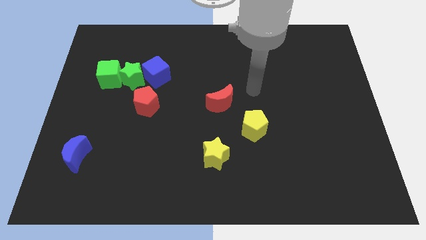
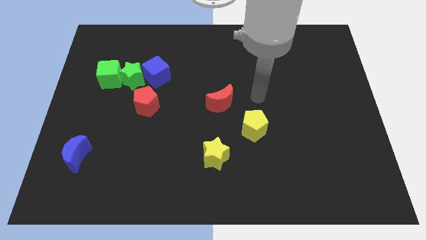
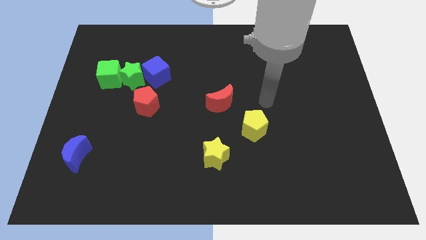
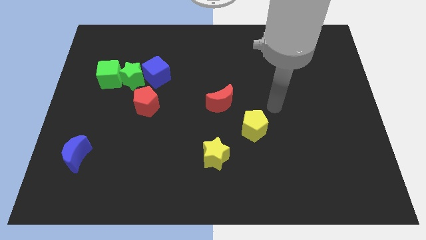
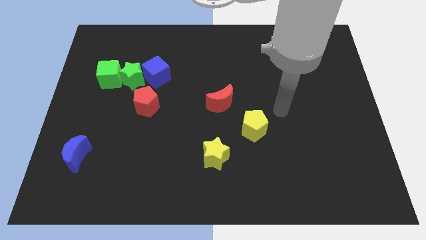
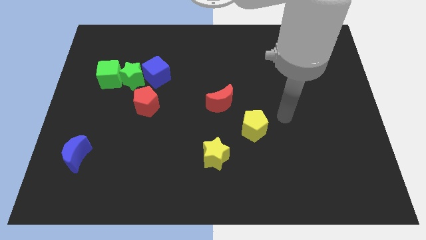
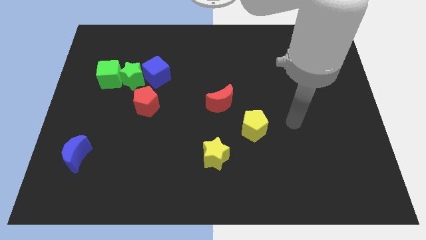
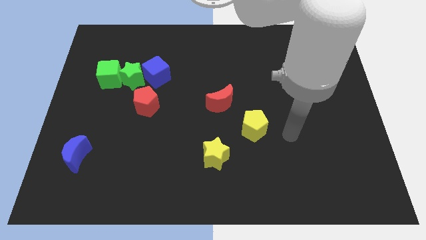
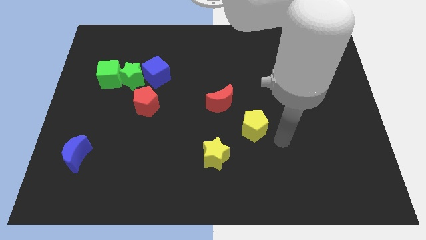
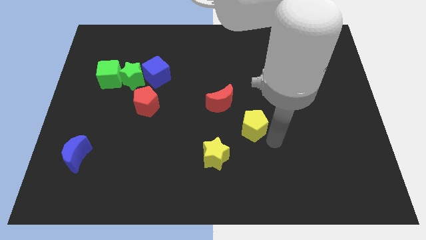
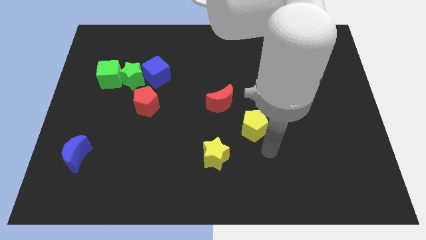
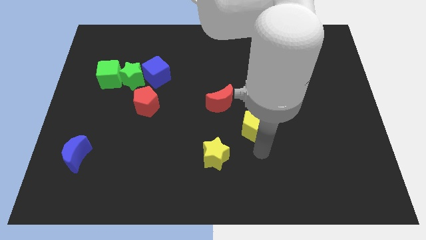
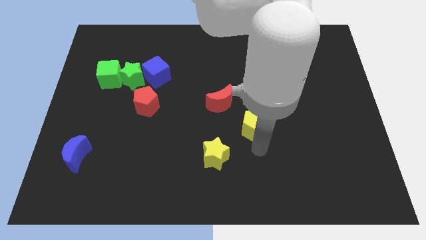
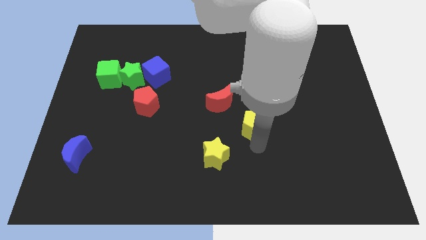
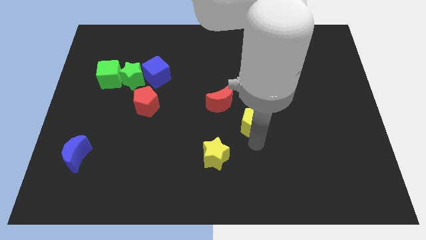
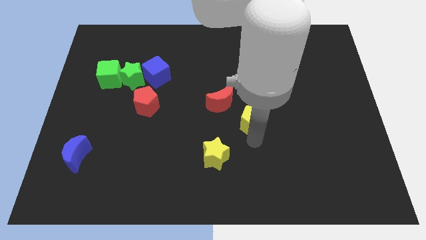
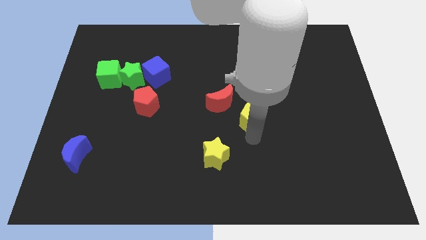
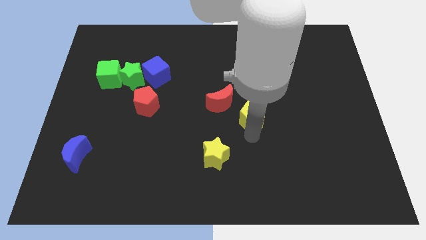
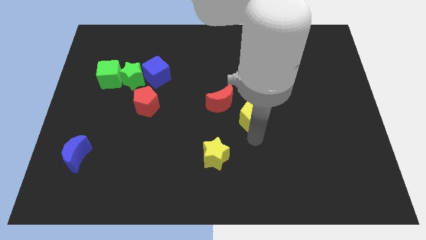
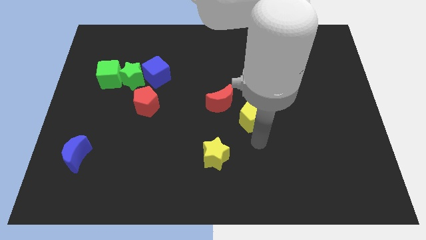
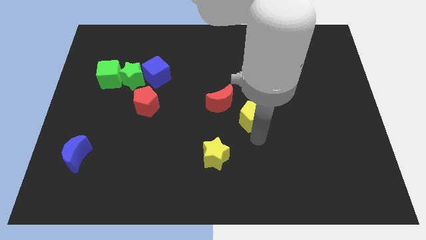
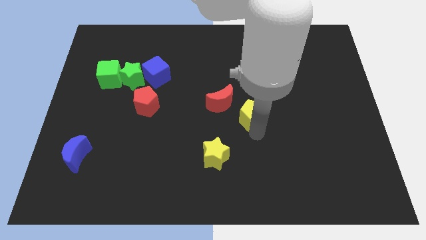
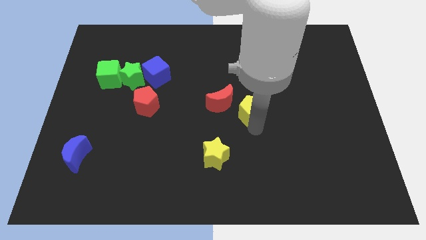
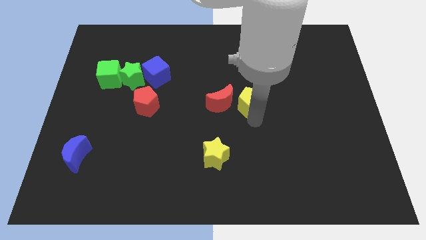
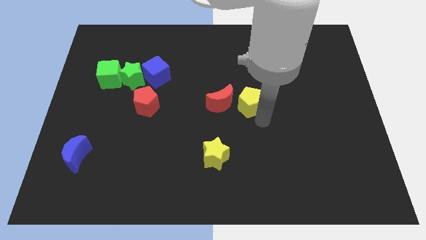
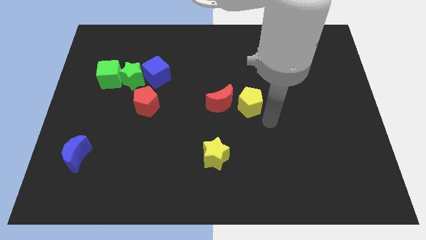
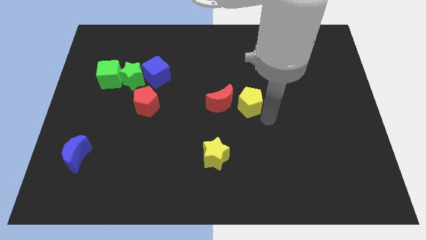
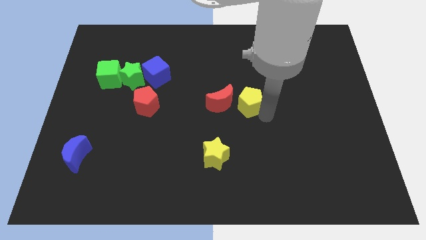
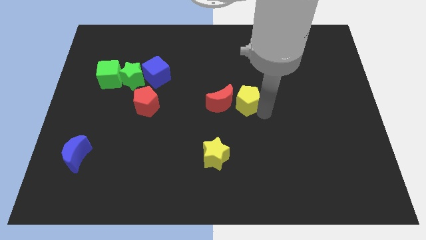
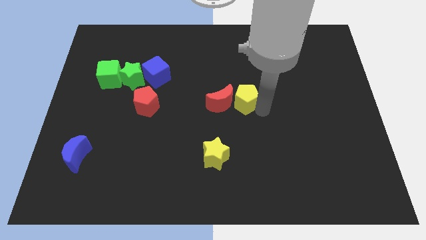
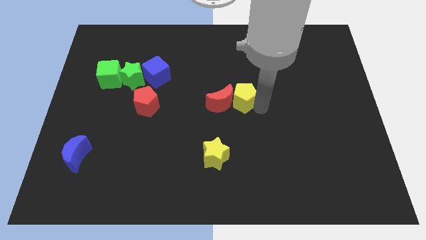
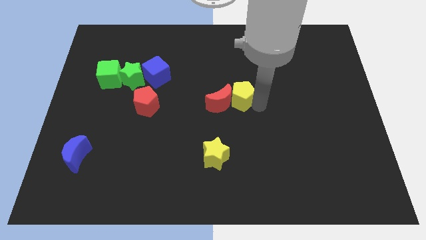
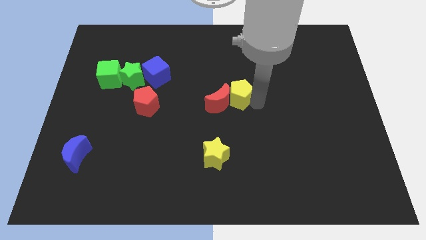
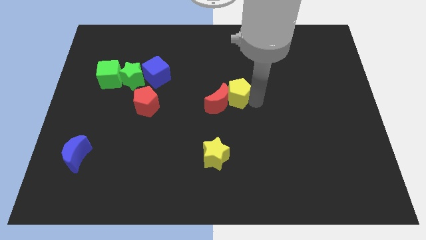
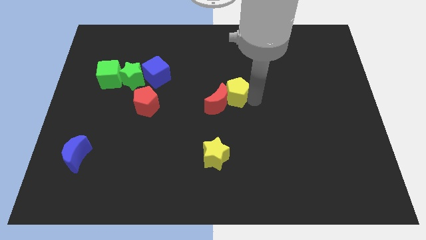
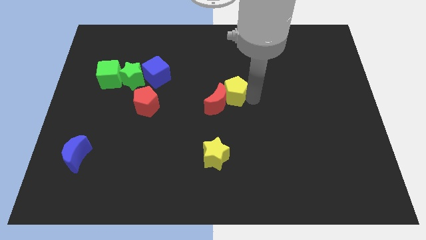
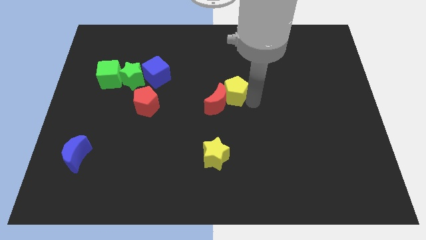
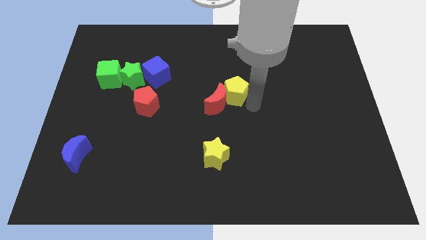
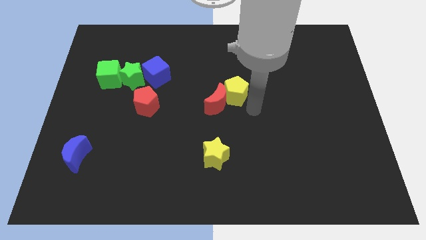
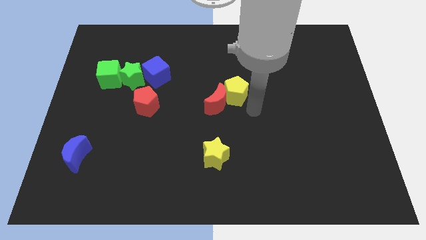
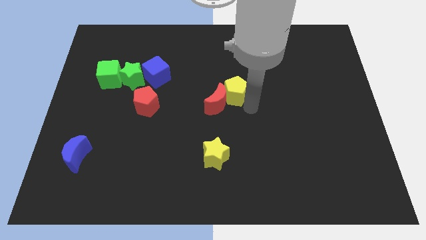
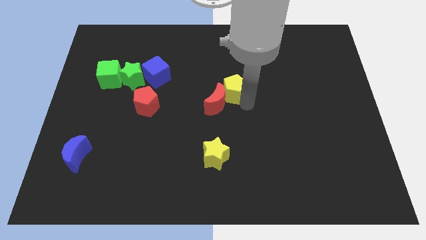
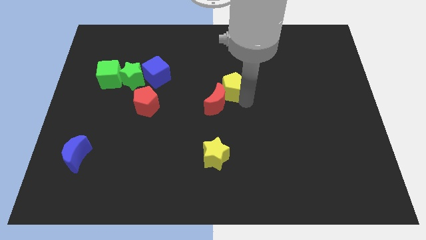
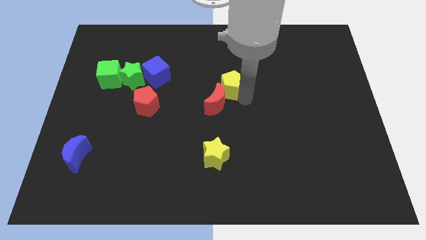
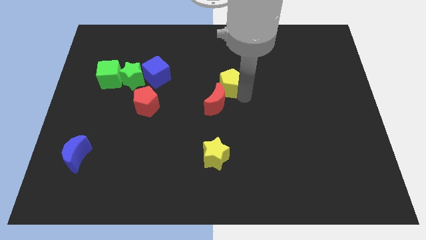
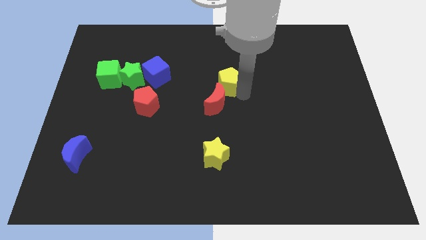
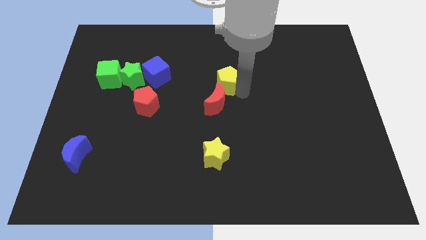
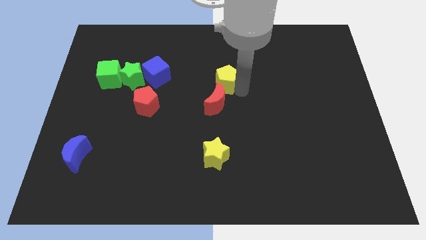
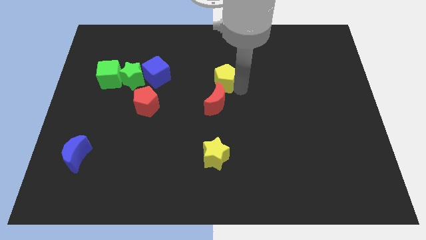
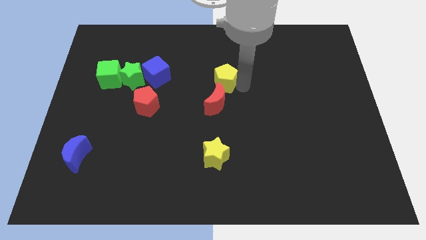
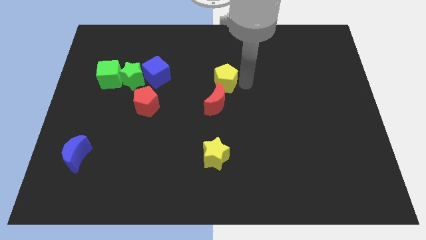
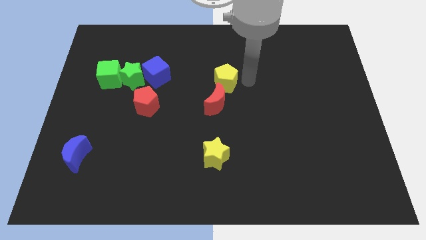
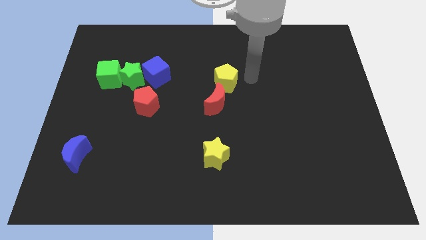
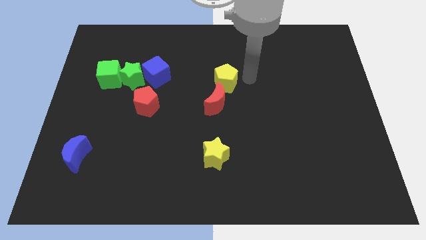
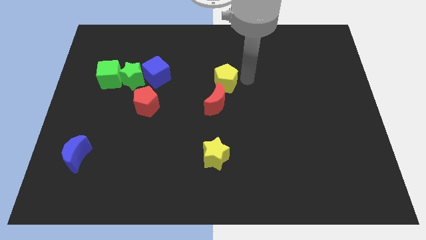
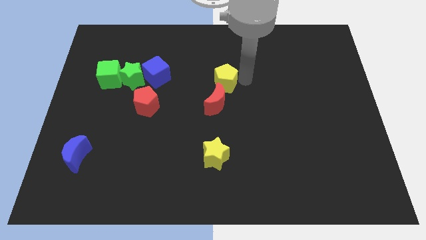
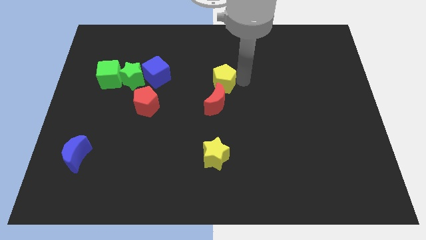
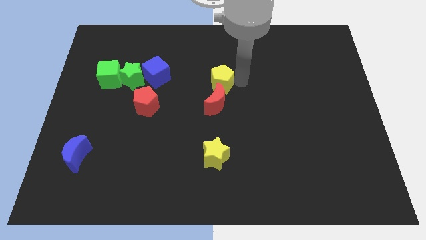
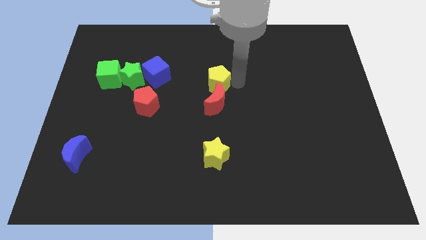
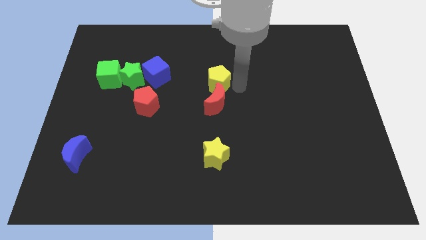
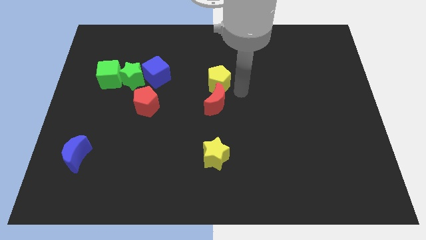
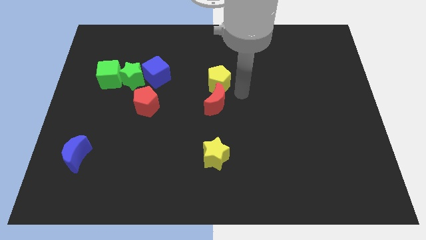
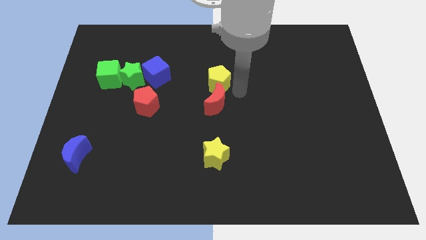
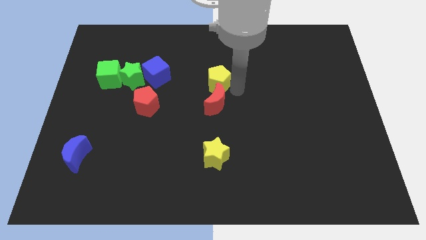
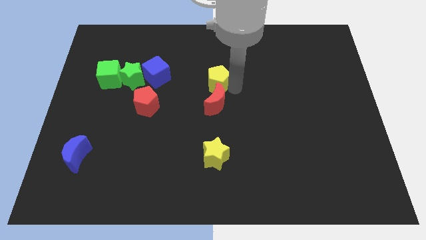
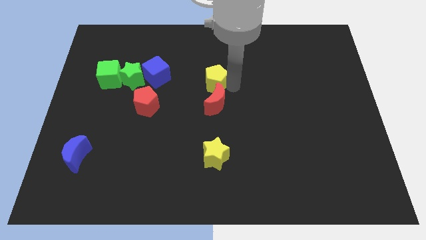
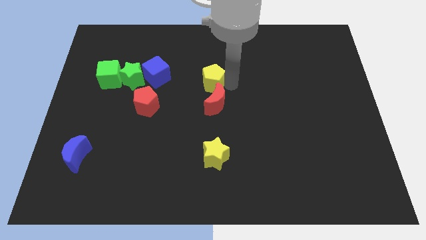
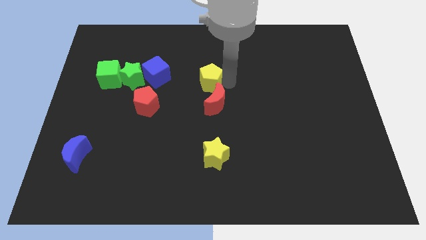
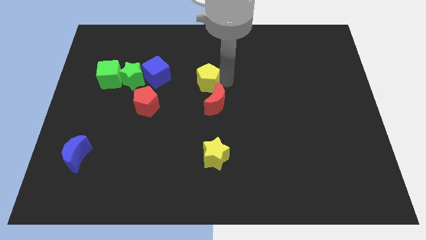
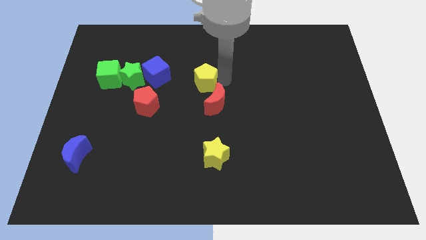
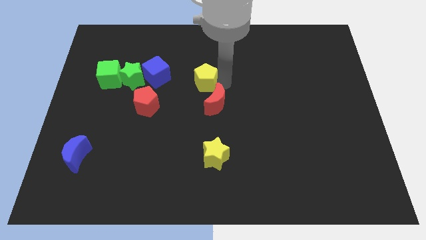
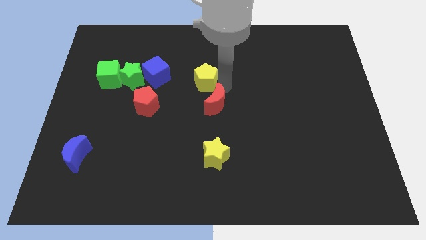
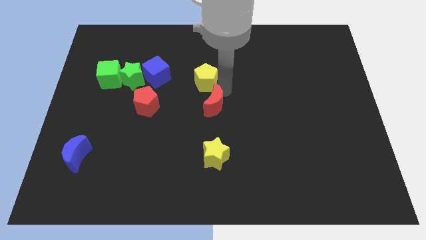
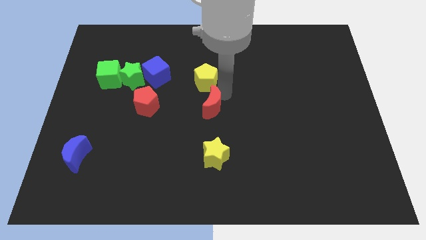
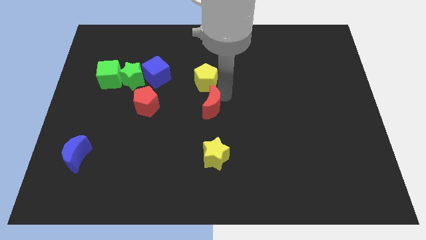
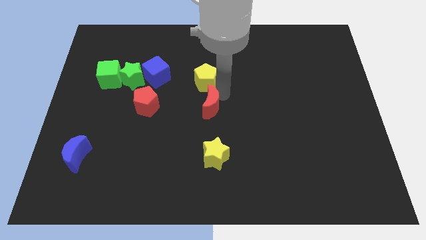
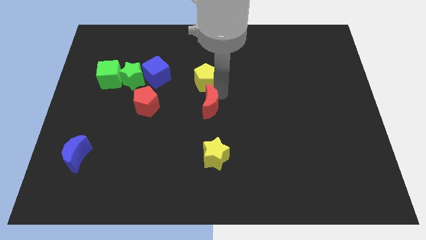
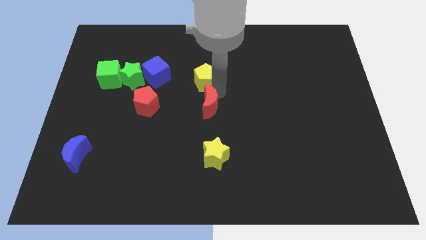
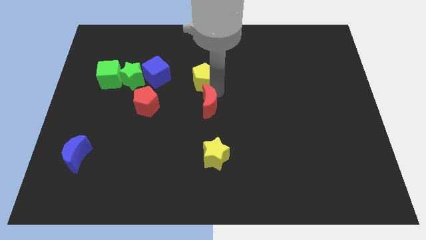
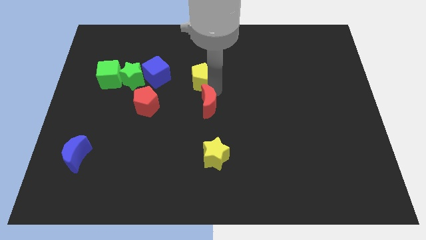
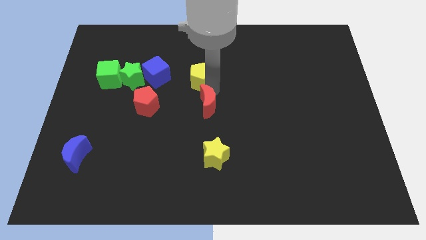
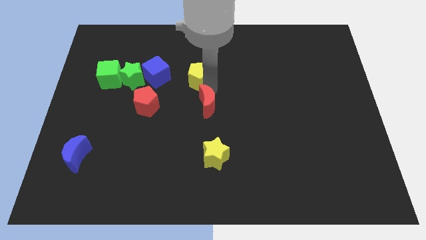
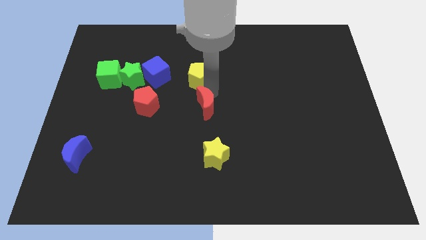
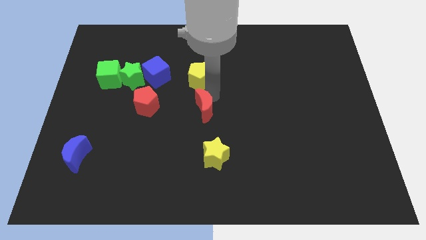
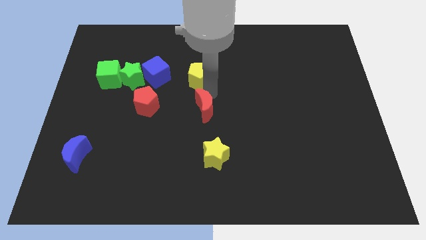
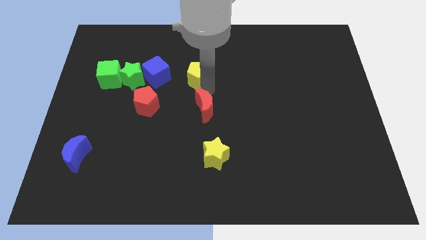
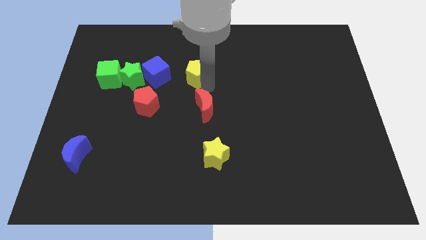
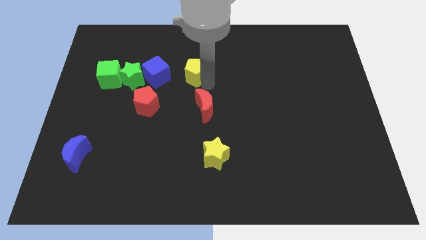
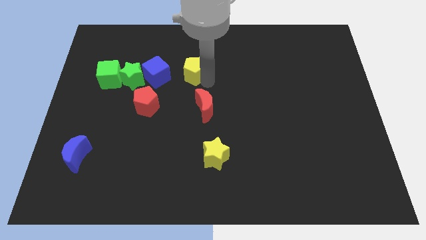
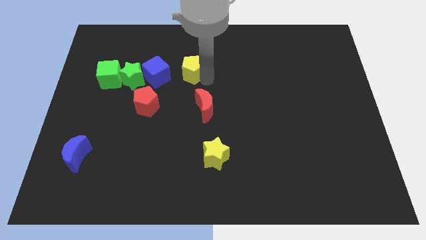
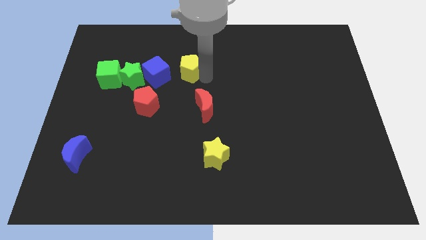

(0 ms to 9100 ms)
slide the yellow pentagon to the top right of the blue cube
